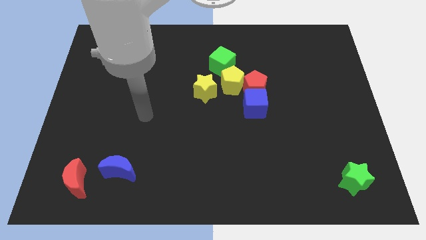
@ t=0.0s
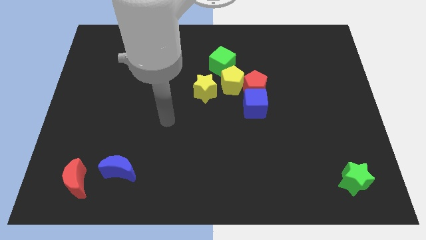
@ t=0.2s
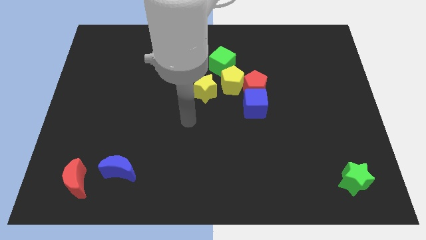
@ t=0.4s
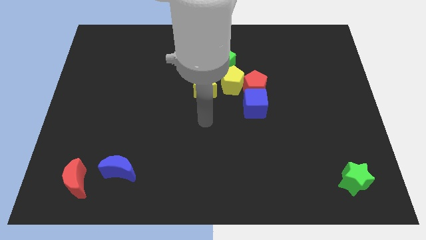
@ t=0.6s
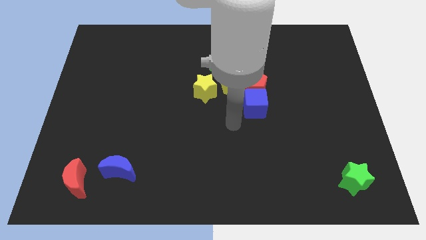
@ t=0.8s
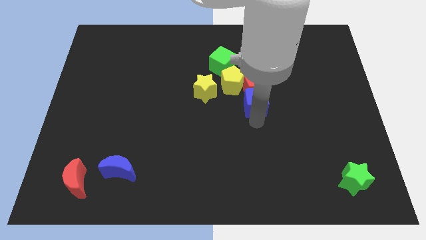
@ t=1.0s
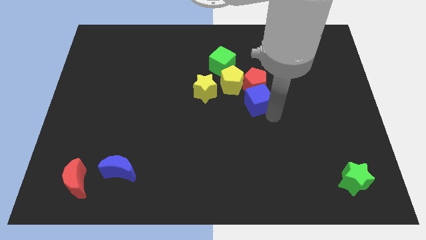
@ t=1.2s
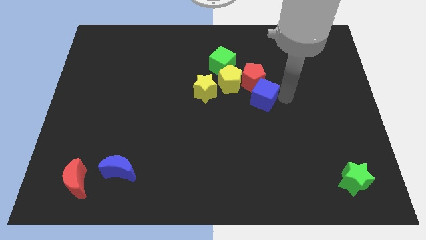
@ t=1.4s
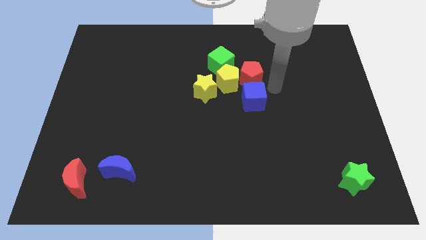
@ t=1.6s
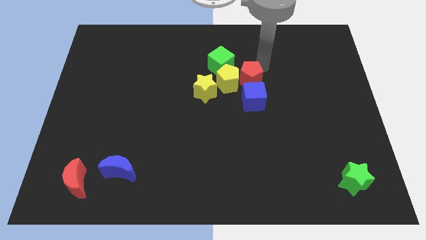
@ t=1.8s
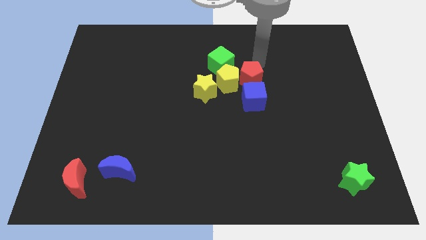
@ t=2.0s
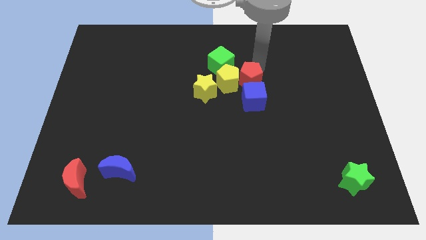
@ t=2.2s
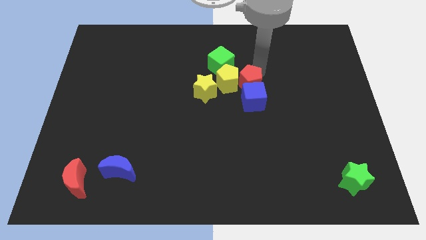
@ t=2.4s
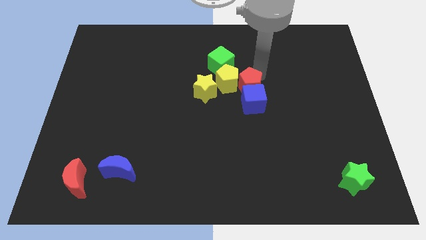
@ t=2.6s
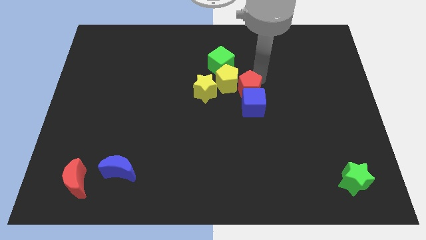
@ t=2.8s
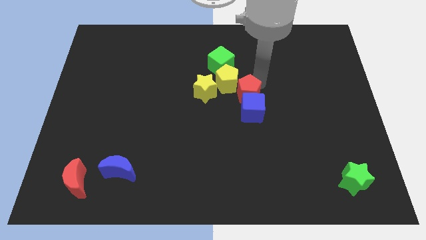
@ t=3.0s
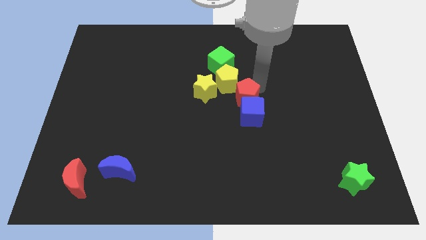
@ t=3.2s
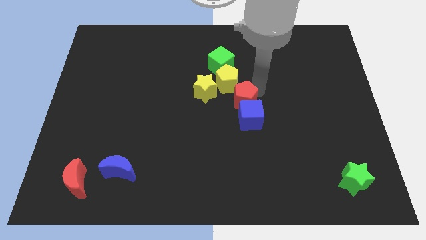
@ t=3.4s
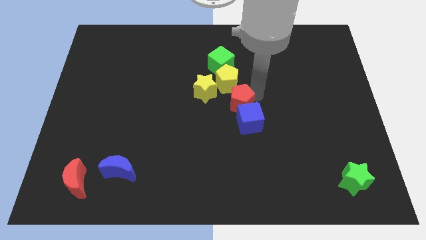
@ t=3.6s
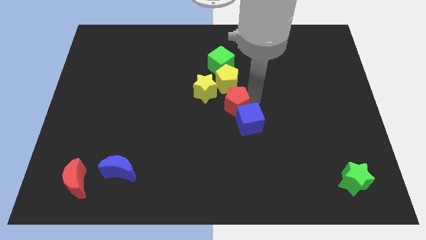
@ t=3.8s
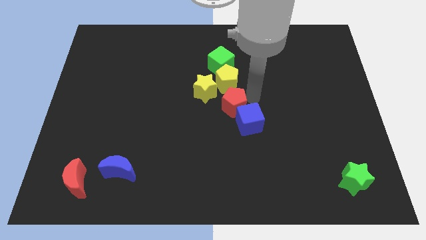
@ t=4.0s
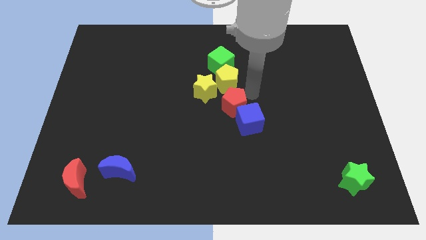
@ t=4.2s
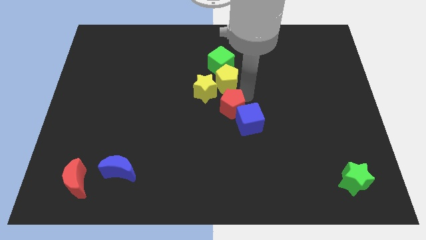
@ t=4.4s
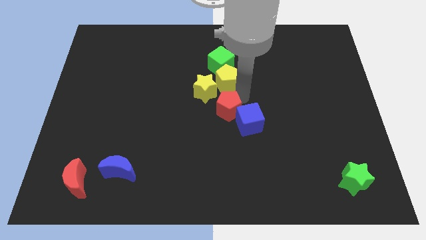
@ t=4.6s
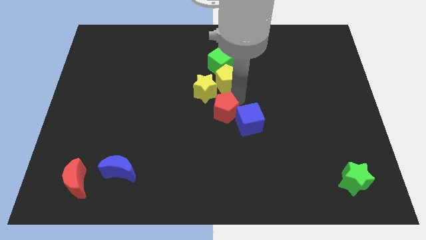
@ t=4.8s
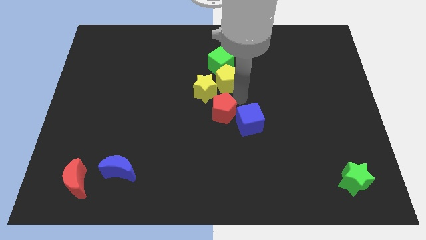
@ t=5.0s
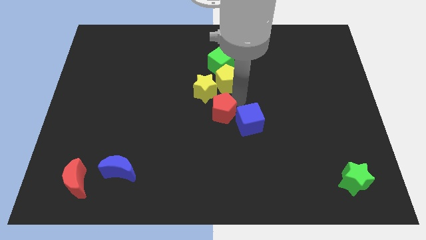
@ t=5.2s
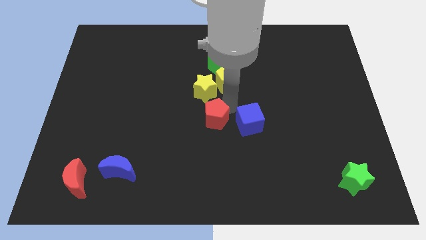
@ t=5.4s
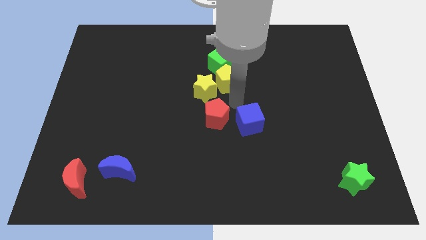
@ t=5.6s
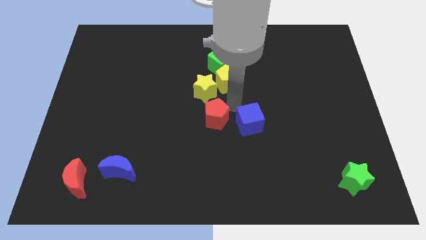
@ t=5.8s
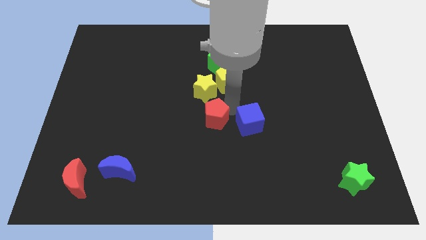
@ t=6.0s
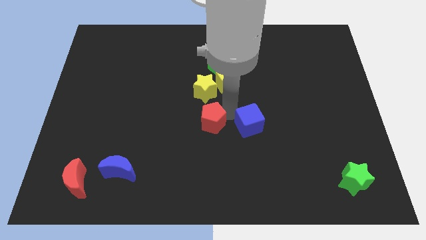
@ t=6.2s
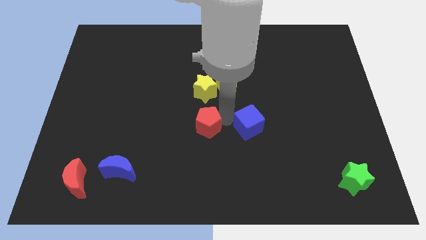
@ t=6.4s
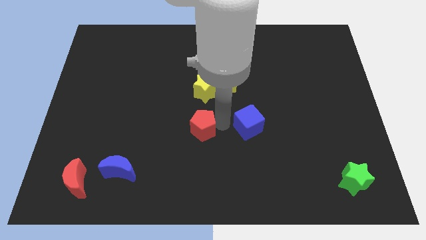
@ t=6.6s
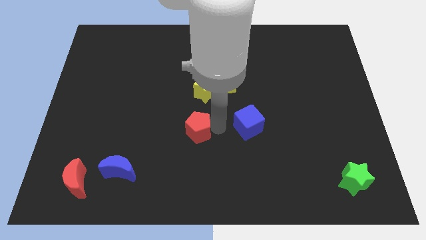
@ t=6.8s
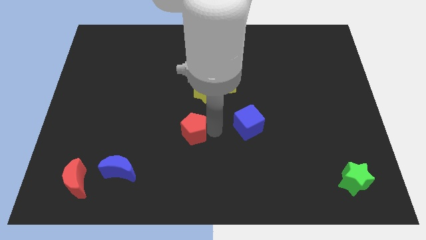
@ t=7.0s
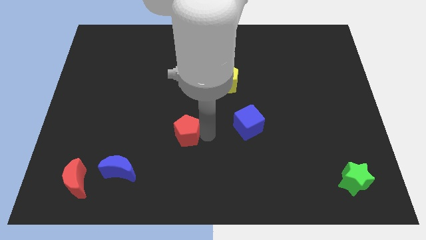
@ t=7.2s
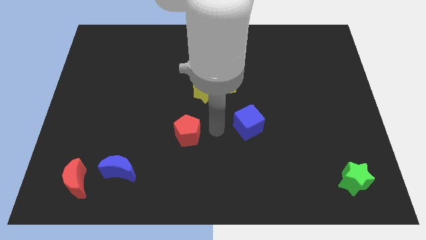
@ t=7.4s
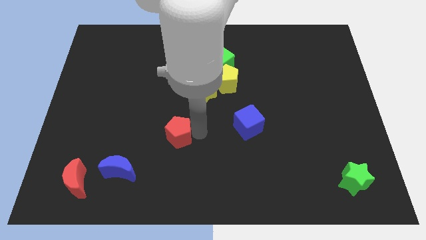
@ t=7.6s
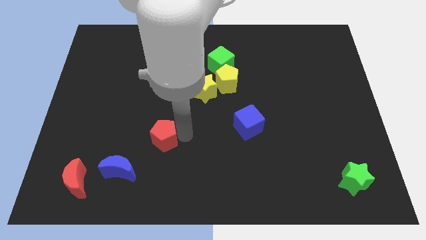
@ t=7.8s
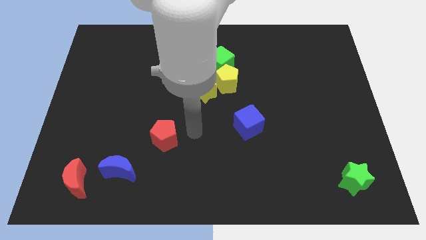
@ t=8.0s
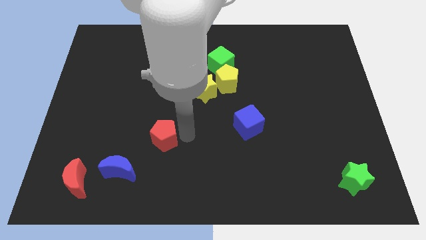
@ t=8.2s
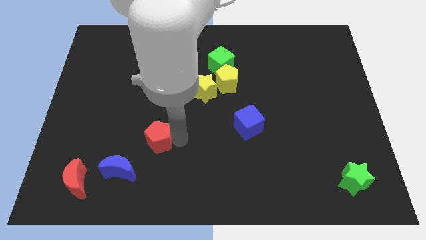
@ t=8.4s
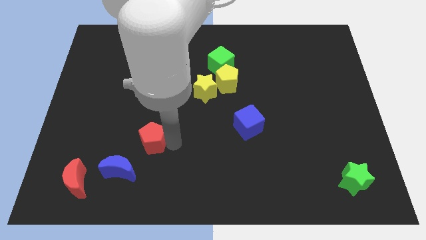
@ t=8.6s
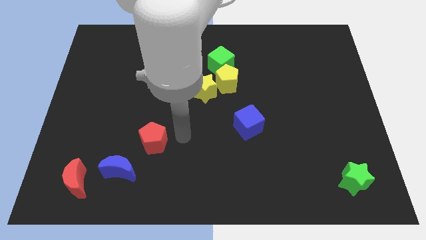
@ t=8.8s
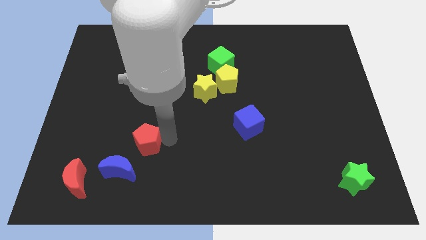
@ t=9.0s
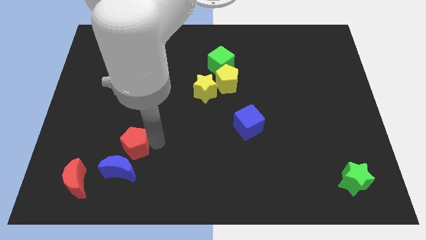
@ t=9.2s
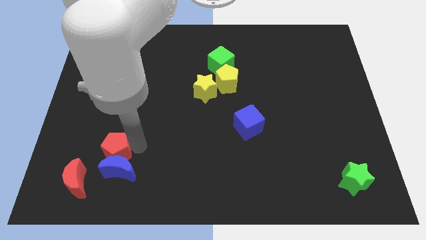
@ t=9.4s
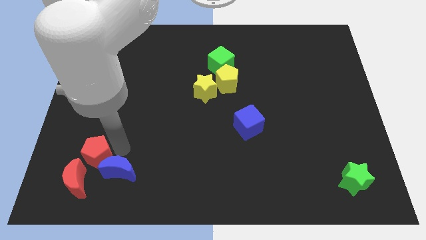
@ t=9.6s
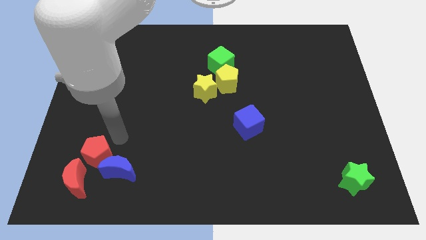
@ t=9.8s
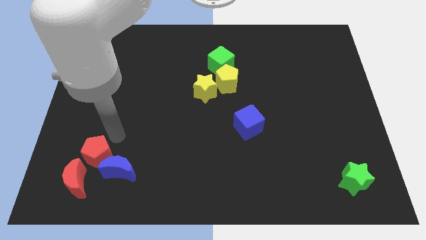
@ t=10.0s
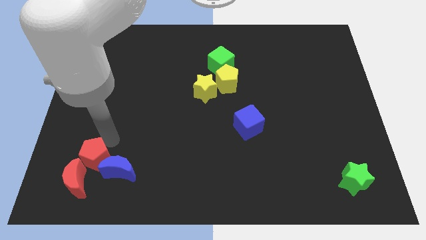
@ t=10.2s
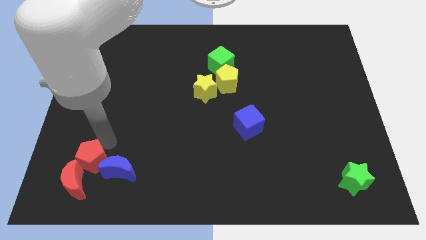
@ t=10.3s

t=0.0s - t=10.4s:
put the red pentagon next to the red moon

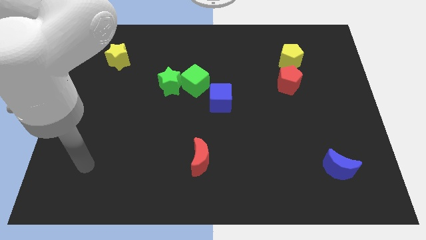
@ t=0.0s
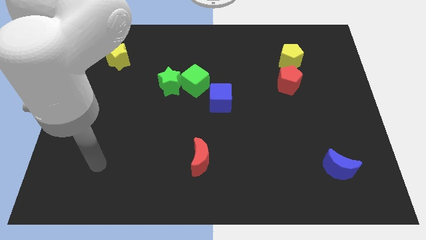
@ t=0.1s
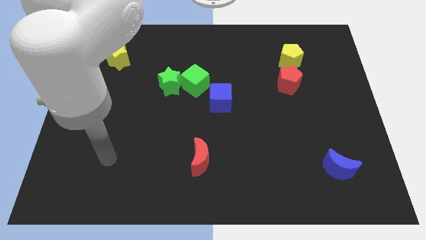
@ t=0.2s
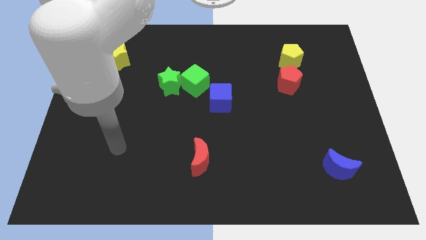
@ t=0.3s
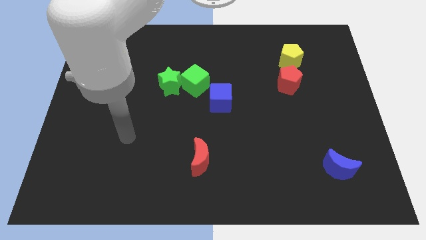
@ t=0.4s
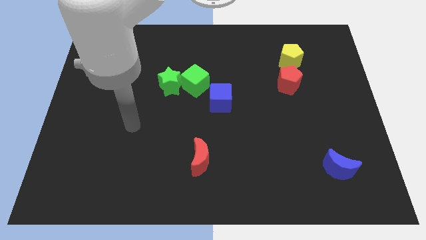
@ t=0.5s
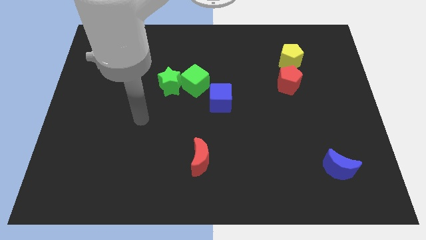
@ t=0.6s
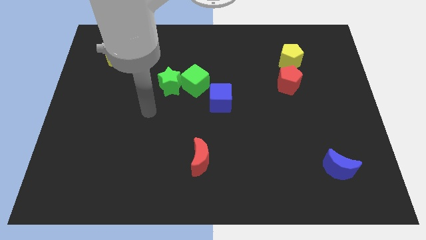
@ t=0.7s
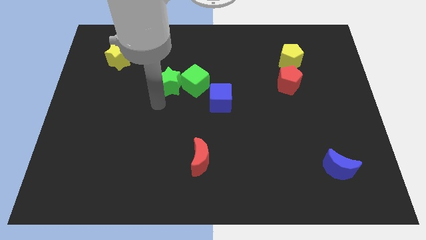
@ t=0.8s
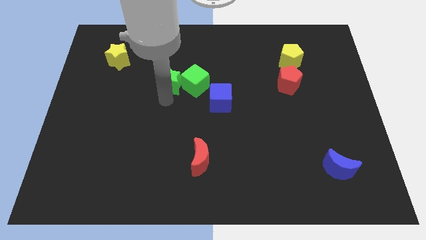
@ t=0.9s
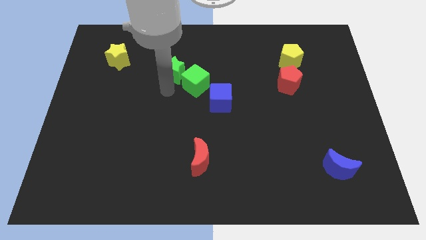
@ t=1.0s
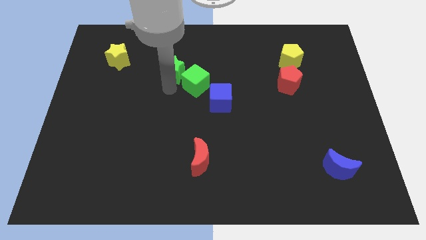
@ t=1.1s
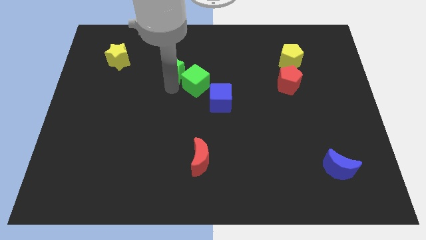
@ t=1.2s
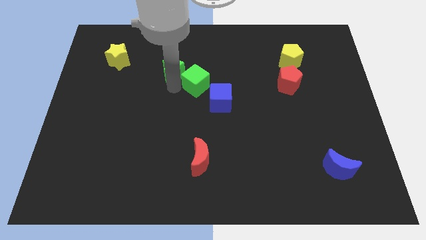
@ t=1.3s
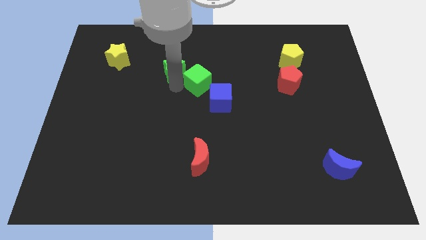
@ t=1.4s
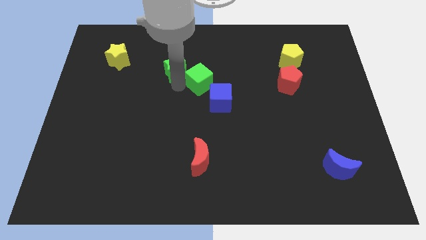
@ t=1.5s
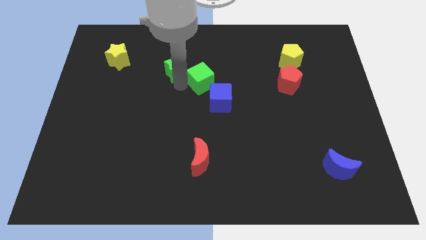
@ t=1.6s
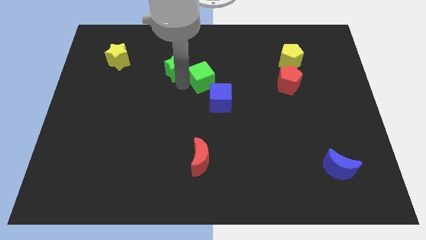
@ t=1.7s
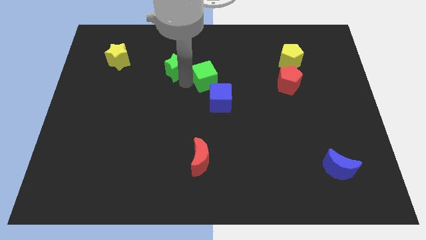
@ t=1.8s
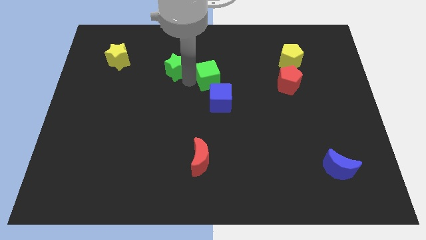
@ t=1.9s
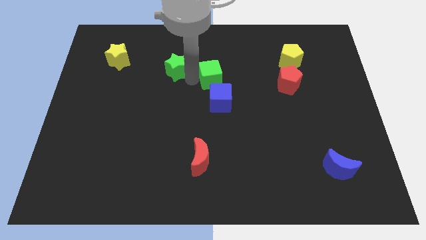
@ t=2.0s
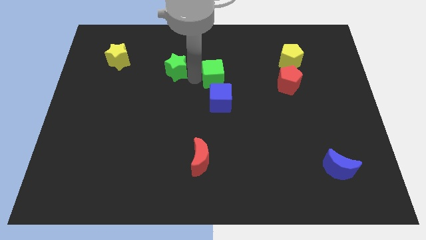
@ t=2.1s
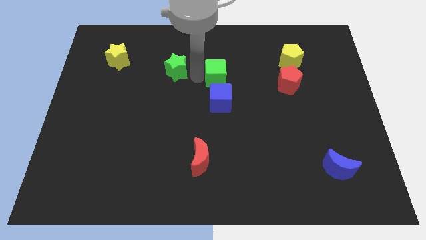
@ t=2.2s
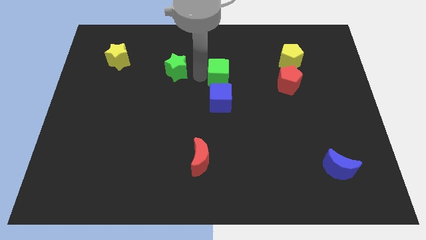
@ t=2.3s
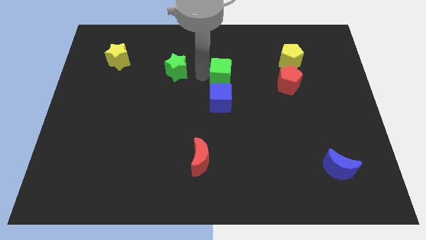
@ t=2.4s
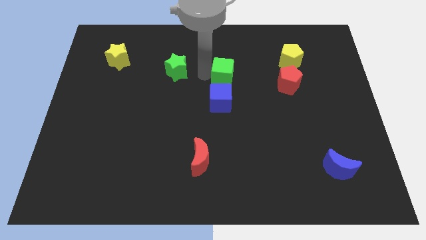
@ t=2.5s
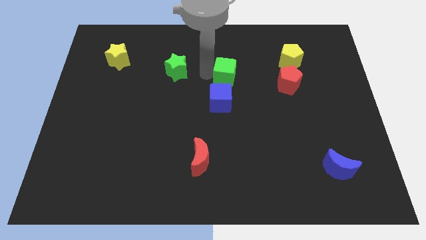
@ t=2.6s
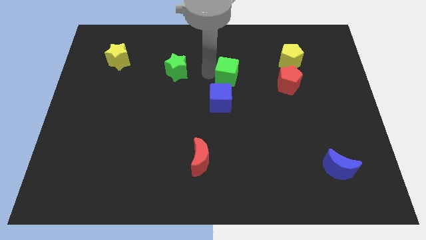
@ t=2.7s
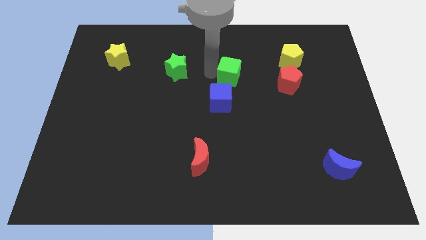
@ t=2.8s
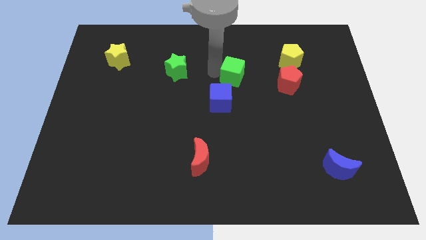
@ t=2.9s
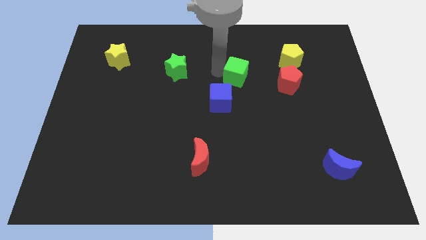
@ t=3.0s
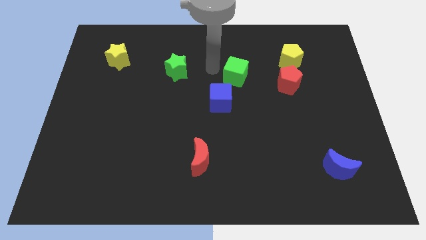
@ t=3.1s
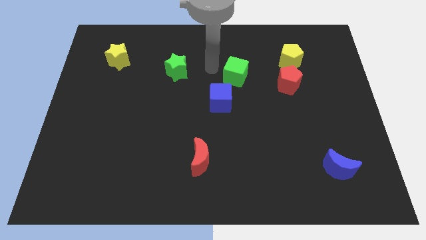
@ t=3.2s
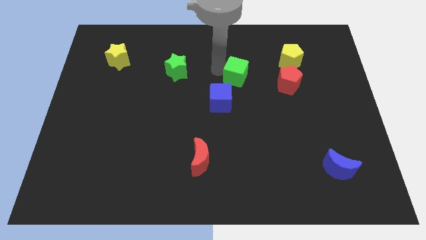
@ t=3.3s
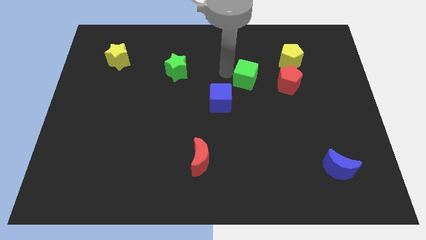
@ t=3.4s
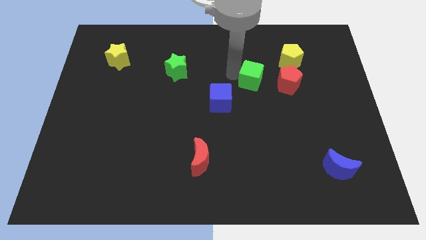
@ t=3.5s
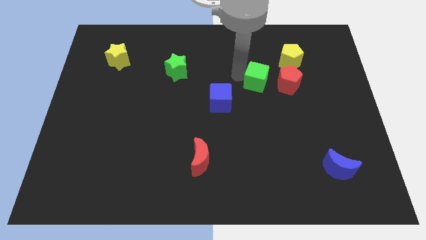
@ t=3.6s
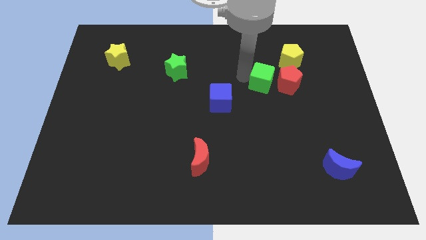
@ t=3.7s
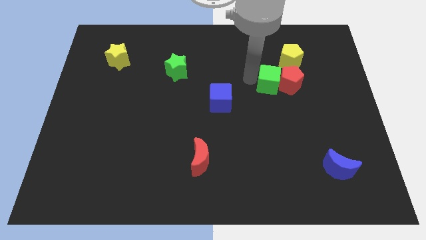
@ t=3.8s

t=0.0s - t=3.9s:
push the green cube towards the red pentagon
